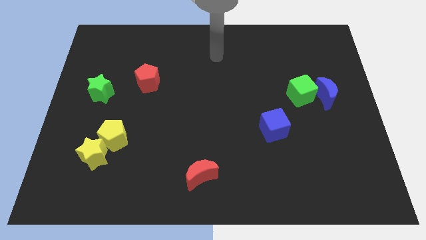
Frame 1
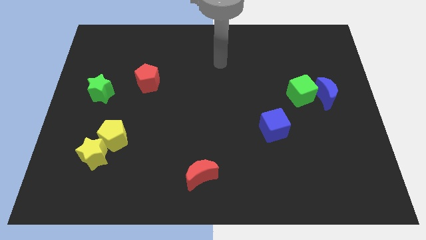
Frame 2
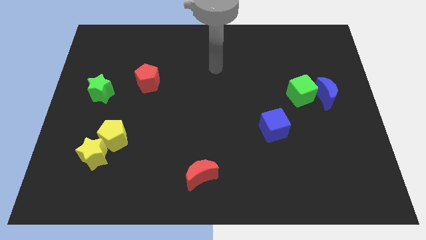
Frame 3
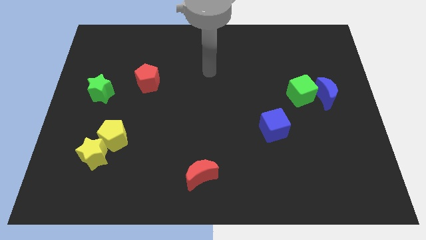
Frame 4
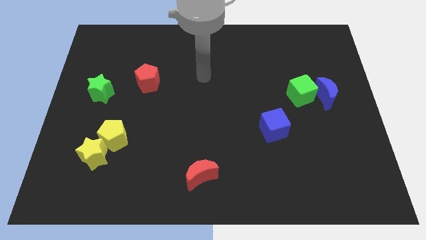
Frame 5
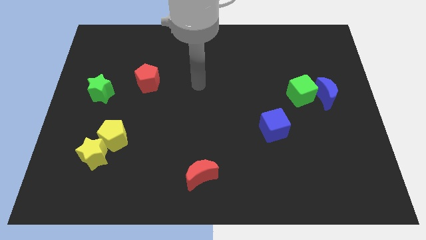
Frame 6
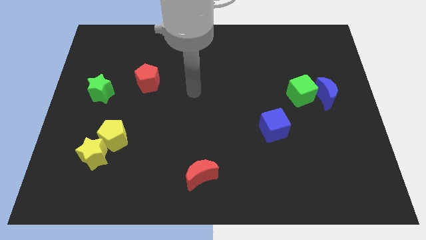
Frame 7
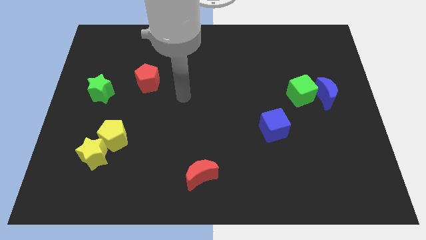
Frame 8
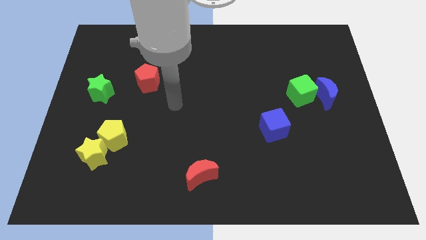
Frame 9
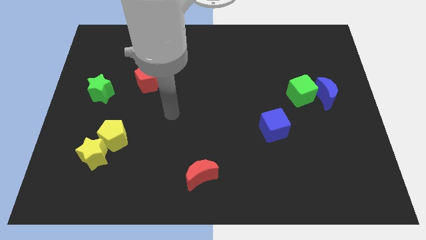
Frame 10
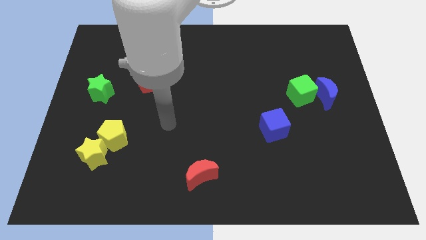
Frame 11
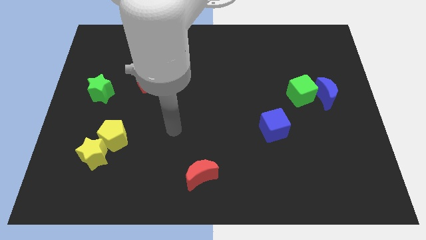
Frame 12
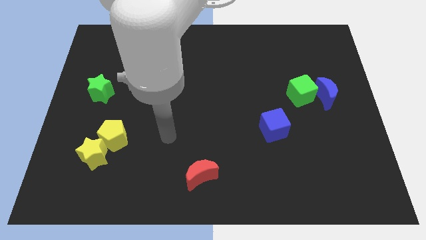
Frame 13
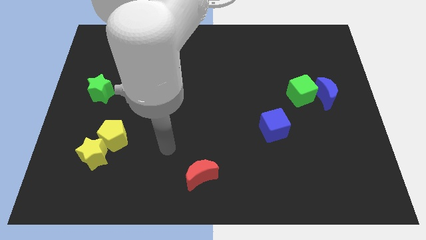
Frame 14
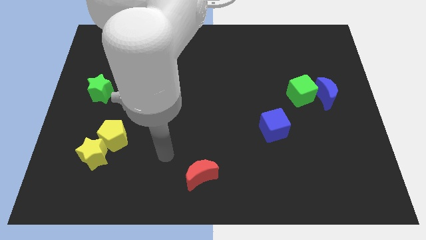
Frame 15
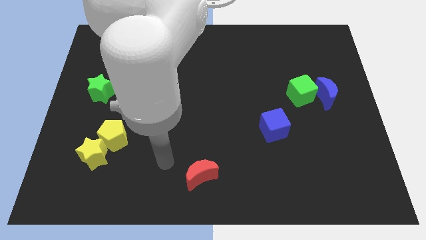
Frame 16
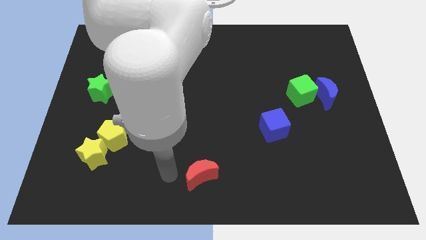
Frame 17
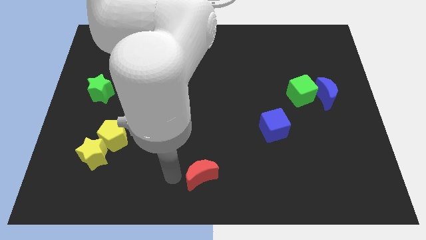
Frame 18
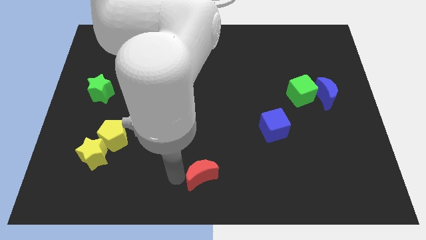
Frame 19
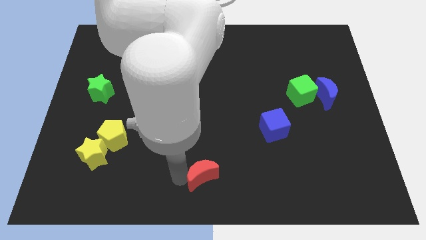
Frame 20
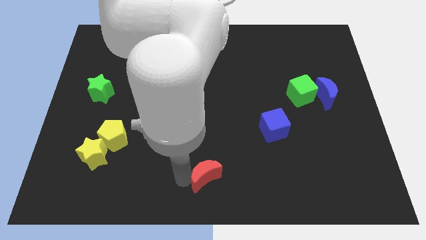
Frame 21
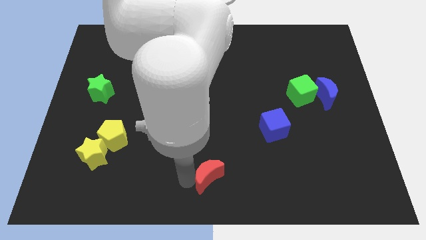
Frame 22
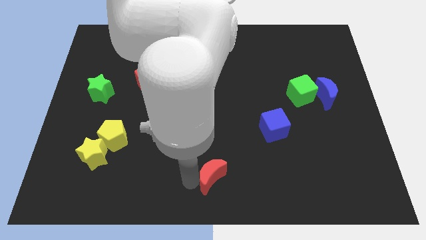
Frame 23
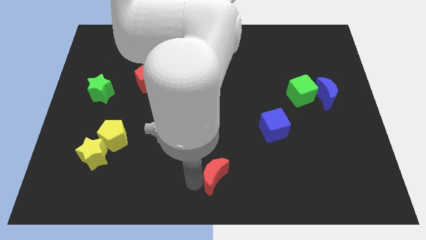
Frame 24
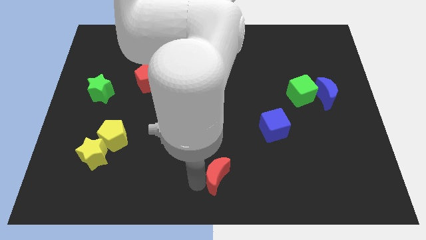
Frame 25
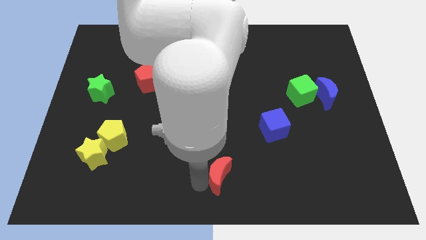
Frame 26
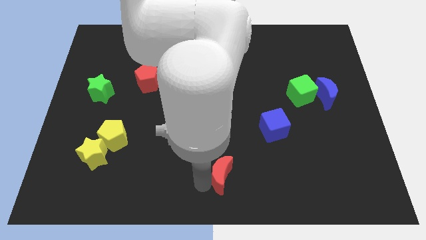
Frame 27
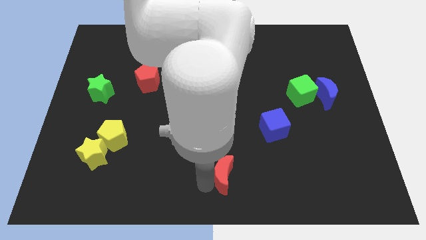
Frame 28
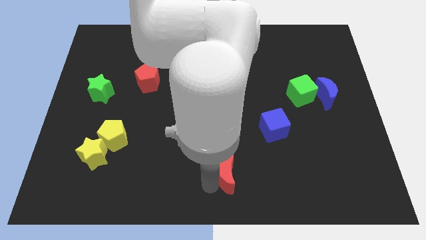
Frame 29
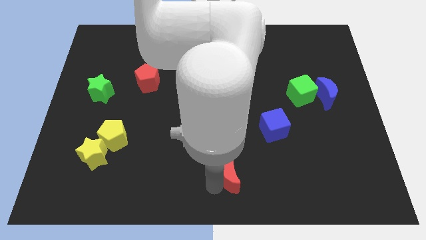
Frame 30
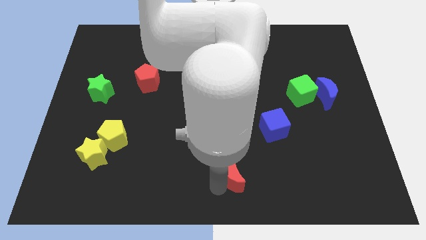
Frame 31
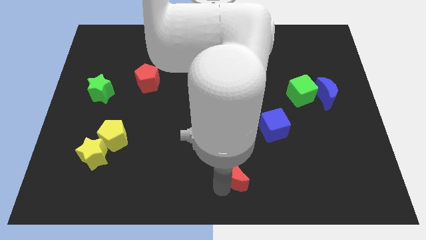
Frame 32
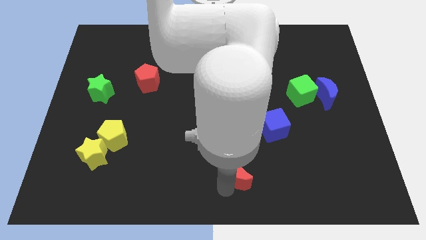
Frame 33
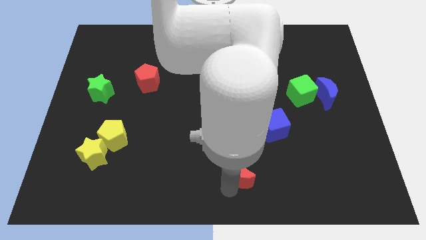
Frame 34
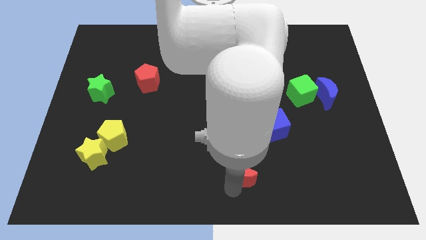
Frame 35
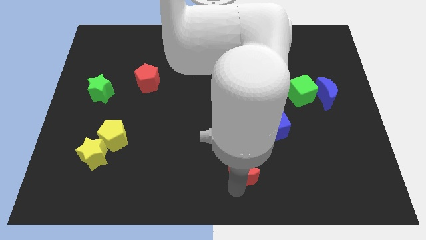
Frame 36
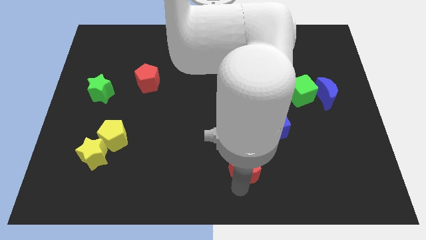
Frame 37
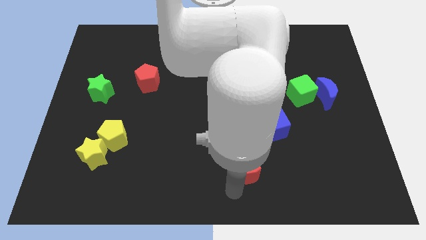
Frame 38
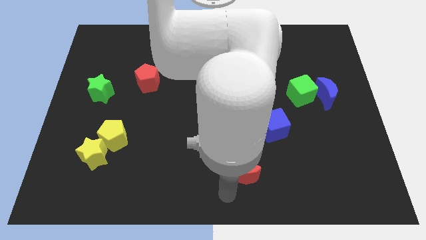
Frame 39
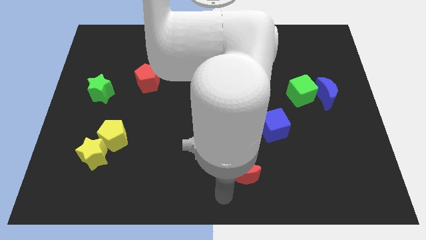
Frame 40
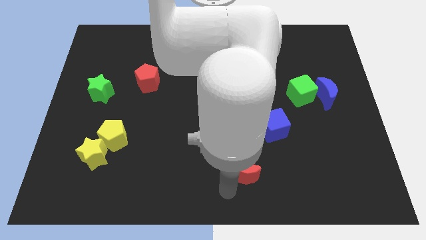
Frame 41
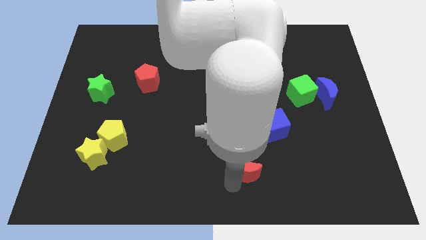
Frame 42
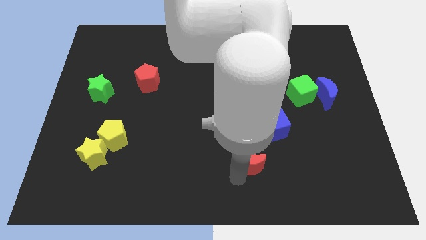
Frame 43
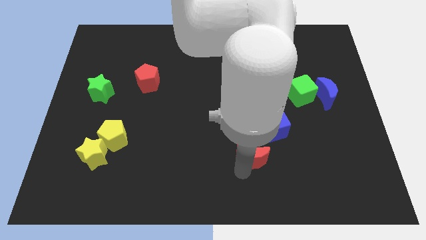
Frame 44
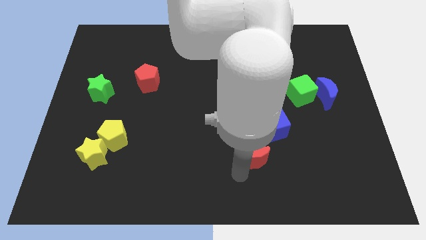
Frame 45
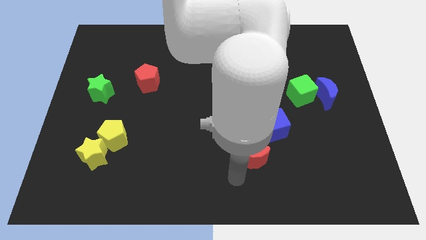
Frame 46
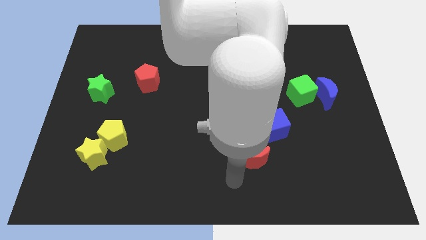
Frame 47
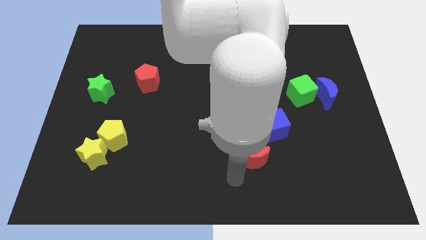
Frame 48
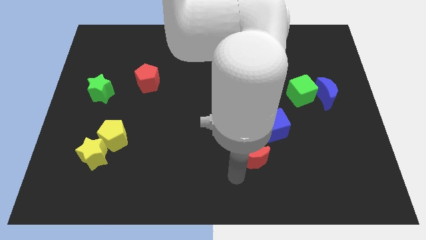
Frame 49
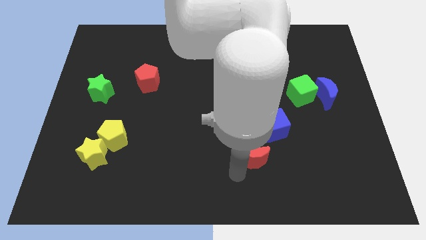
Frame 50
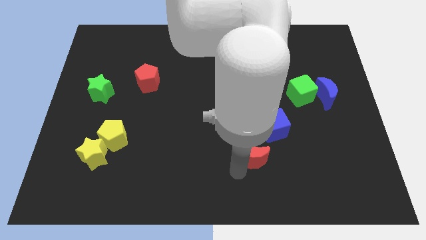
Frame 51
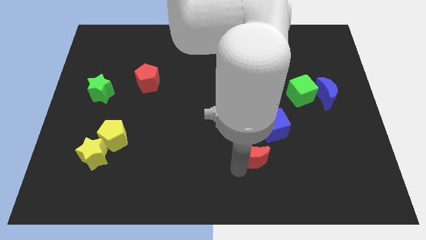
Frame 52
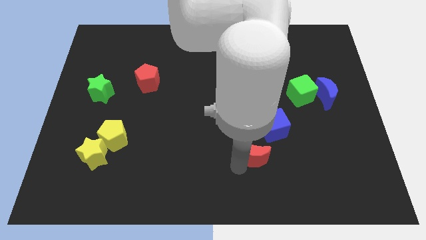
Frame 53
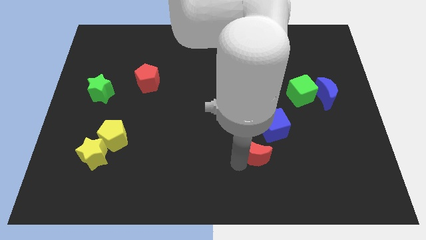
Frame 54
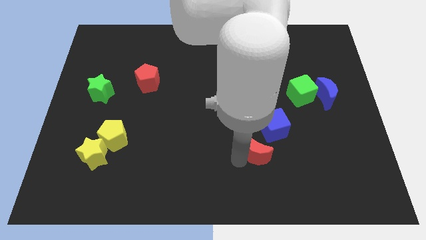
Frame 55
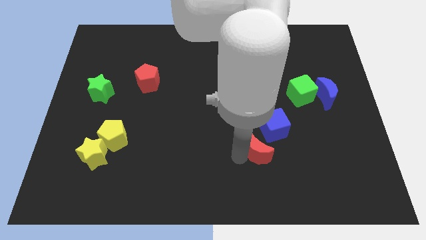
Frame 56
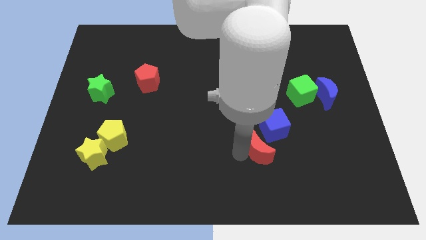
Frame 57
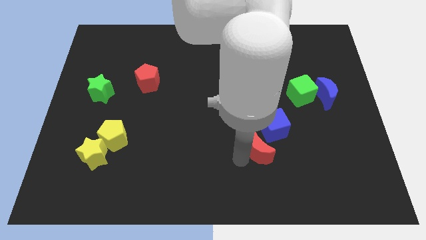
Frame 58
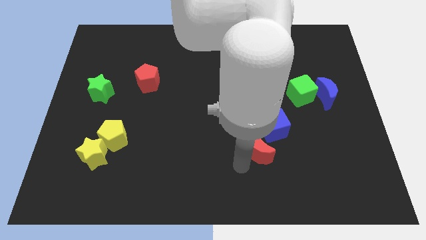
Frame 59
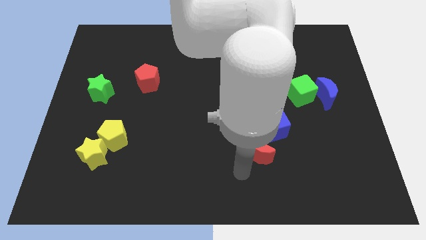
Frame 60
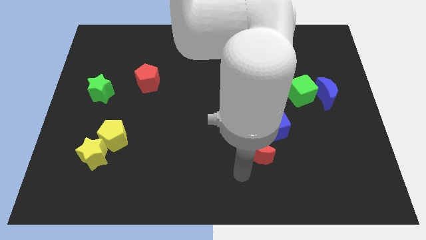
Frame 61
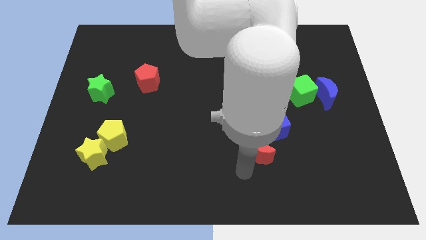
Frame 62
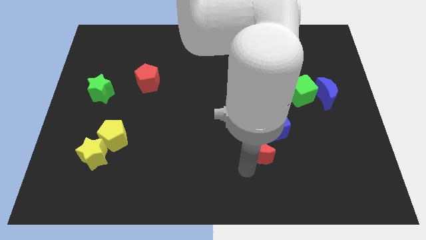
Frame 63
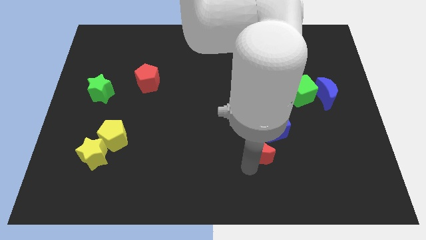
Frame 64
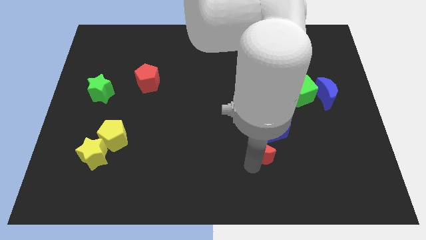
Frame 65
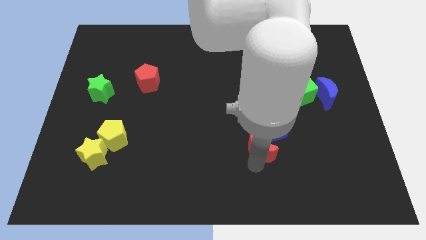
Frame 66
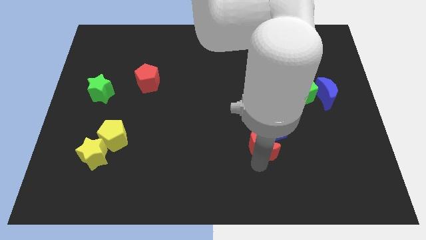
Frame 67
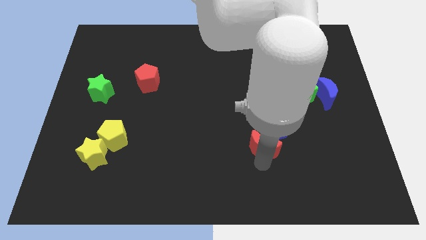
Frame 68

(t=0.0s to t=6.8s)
put the red moon next to the blue cube

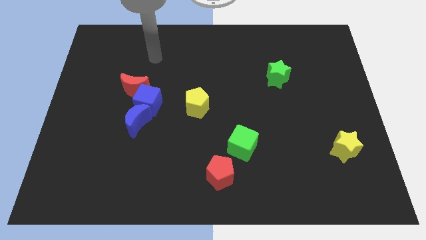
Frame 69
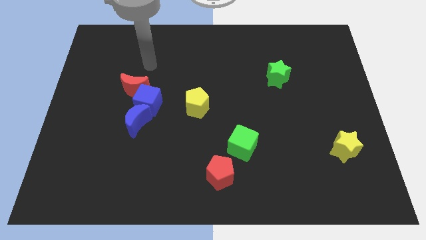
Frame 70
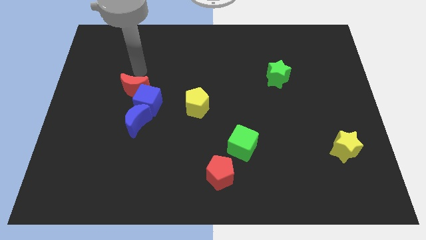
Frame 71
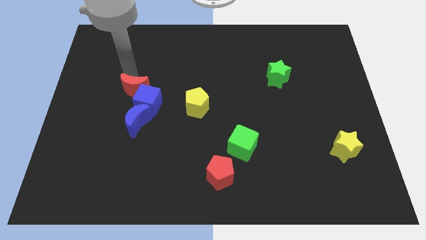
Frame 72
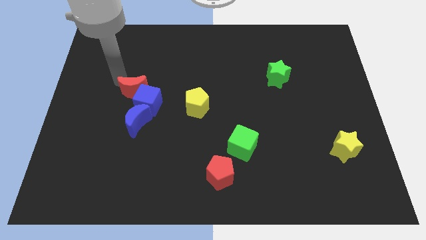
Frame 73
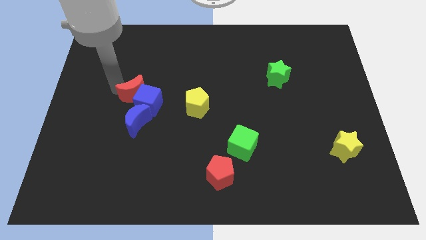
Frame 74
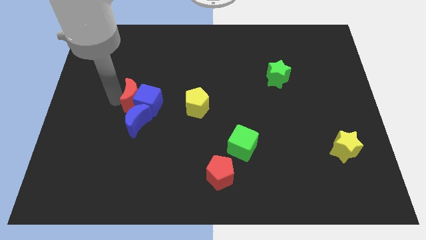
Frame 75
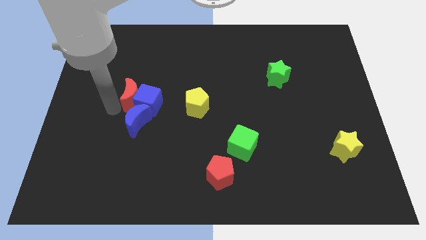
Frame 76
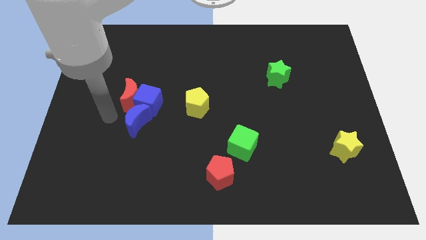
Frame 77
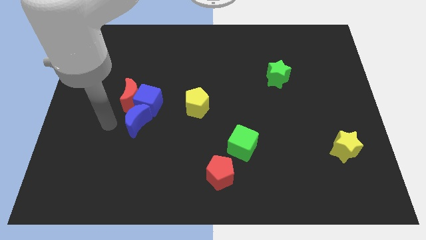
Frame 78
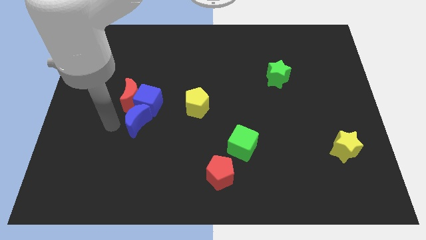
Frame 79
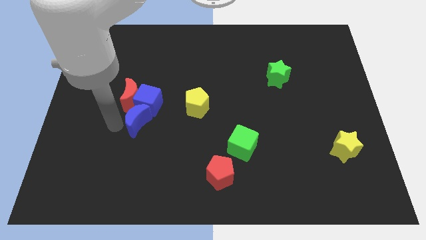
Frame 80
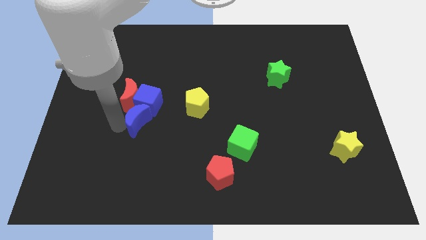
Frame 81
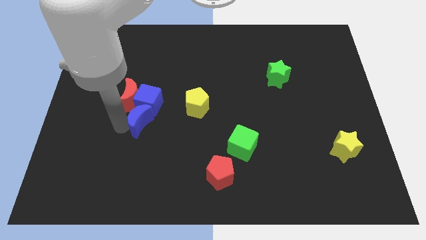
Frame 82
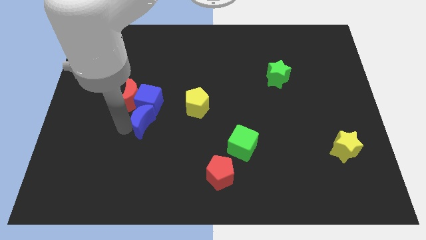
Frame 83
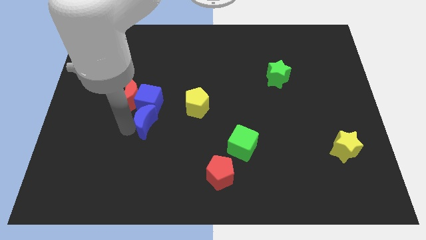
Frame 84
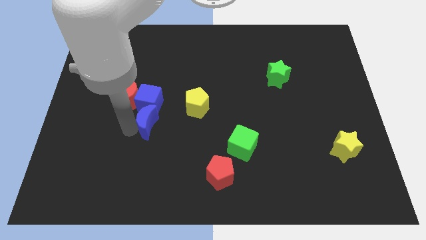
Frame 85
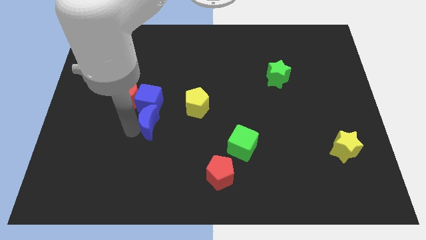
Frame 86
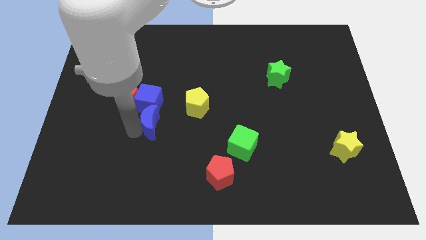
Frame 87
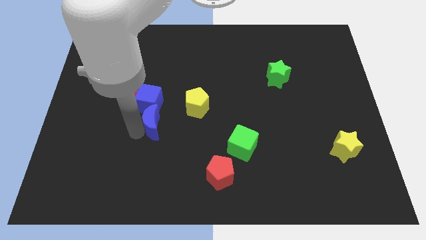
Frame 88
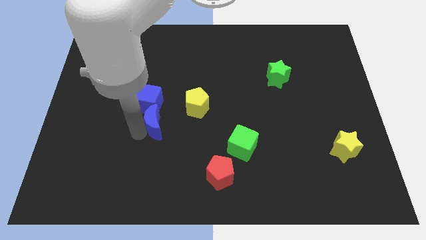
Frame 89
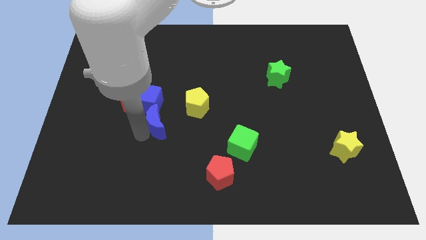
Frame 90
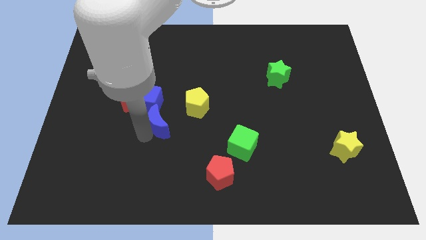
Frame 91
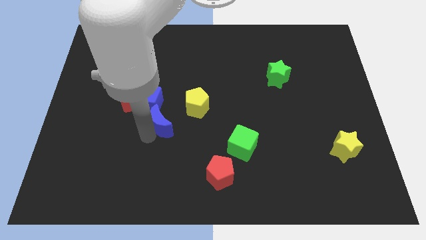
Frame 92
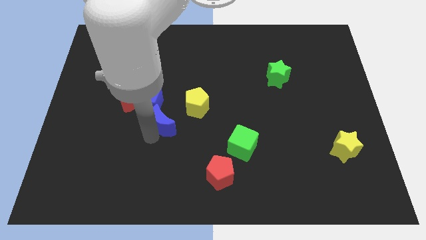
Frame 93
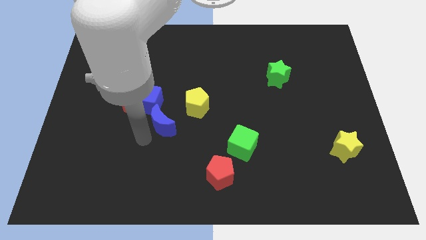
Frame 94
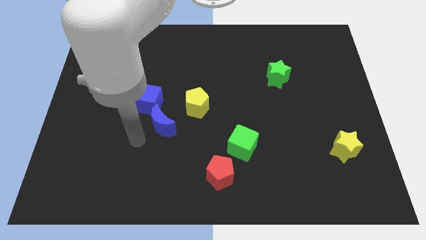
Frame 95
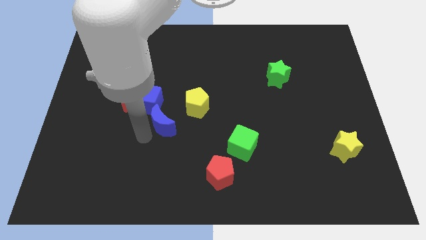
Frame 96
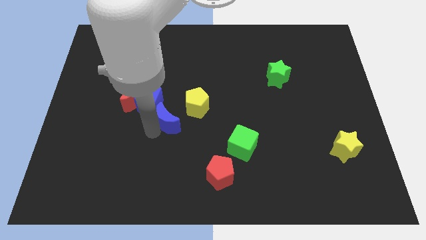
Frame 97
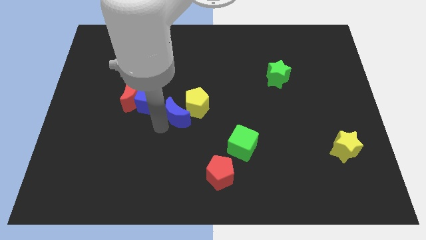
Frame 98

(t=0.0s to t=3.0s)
push the blue moon close to the yellow pentagon
